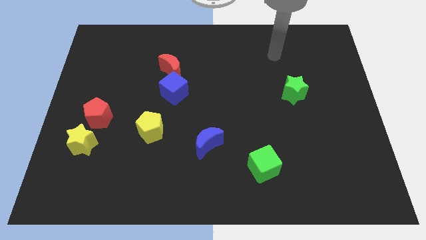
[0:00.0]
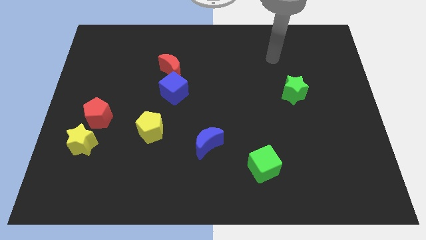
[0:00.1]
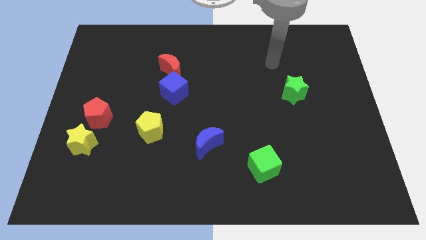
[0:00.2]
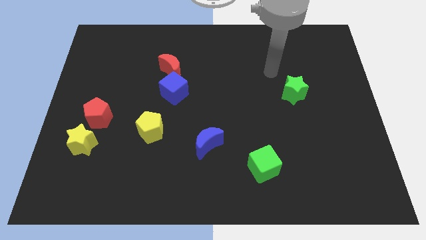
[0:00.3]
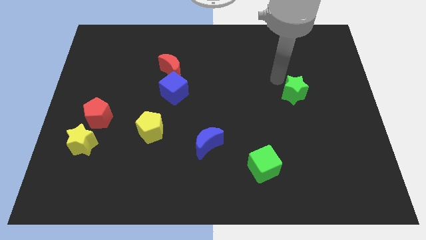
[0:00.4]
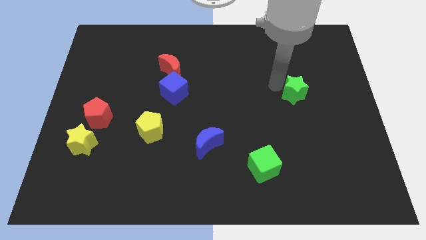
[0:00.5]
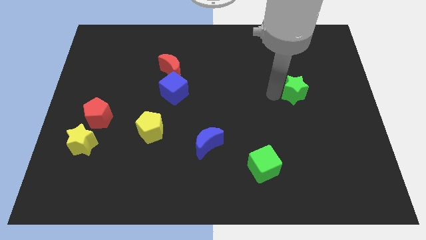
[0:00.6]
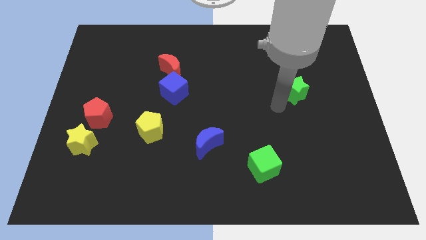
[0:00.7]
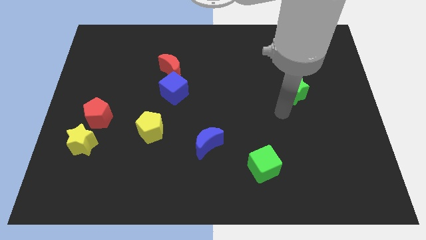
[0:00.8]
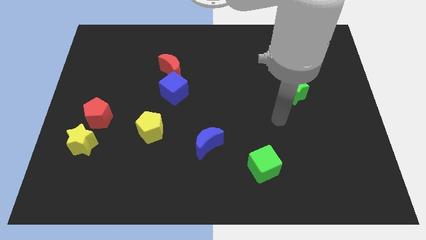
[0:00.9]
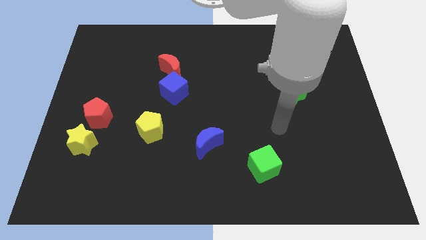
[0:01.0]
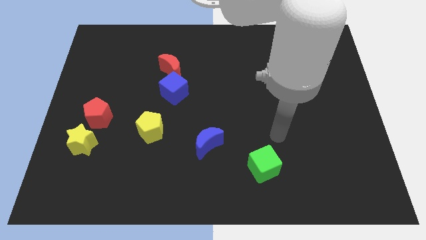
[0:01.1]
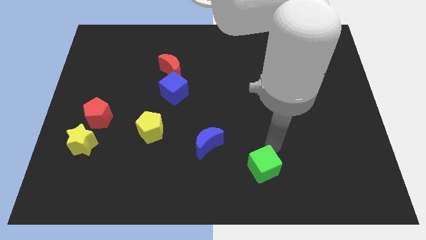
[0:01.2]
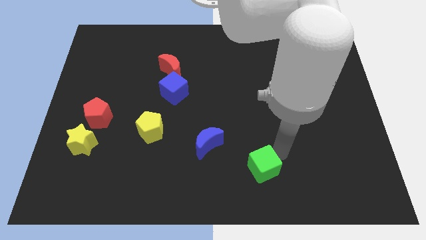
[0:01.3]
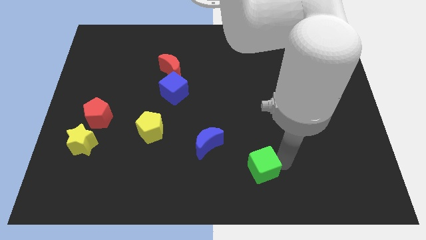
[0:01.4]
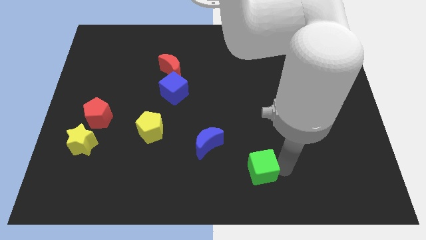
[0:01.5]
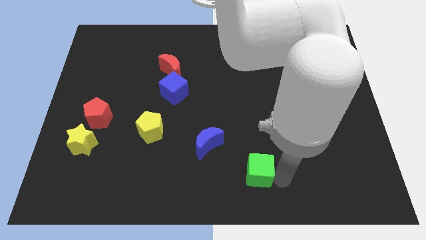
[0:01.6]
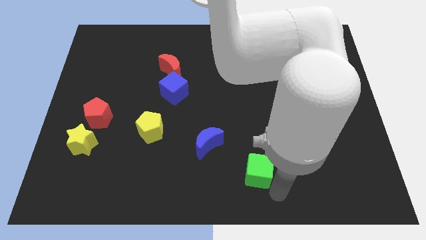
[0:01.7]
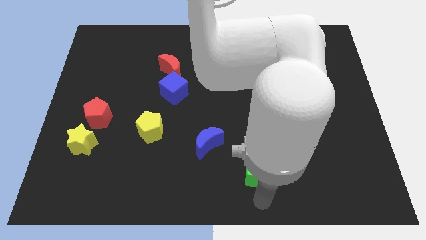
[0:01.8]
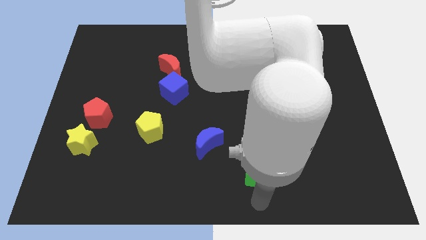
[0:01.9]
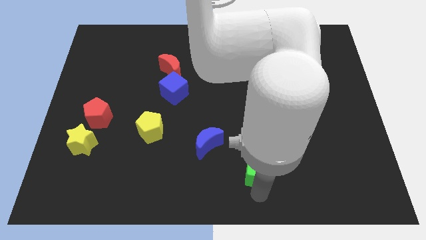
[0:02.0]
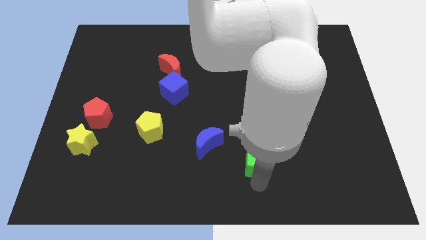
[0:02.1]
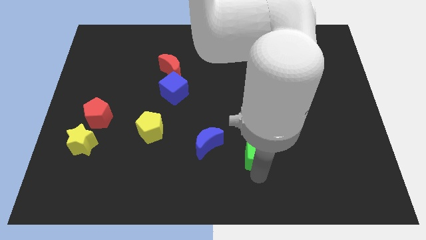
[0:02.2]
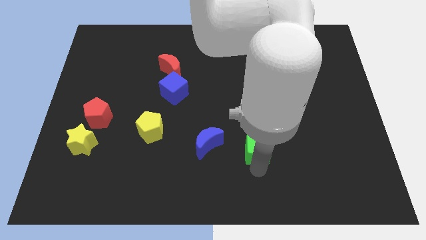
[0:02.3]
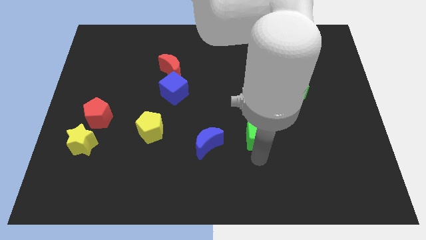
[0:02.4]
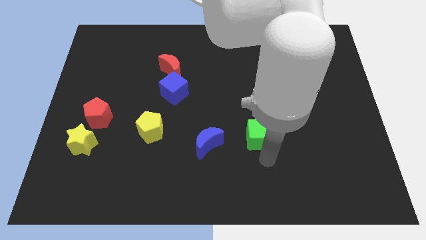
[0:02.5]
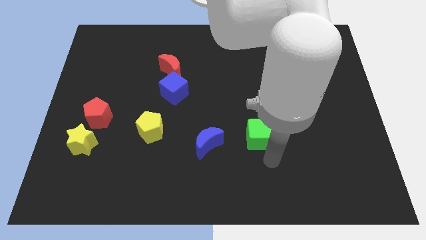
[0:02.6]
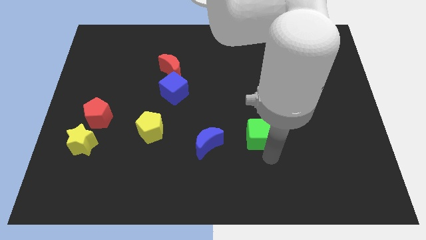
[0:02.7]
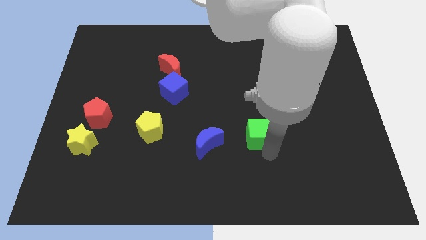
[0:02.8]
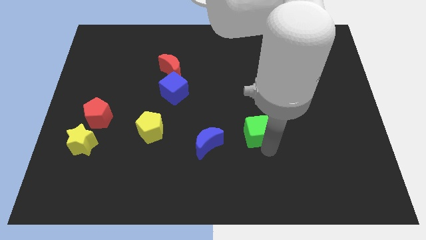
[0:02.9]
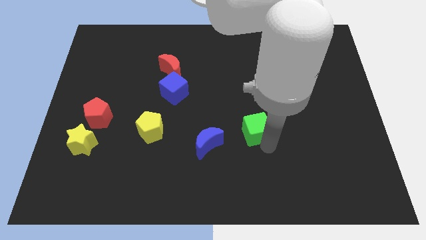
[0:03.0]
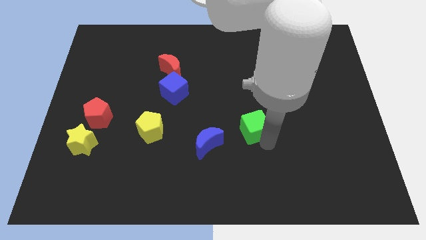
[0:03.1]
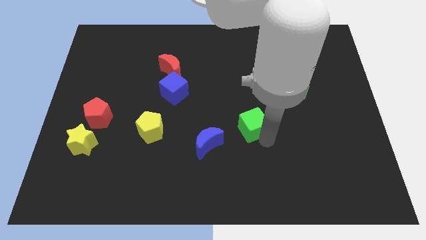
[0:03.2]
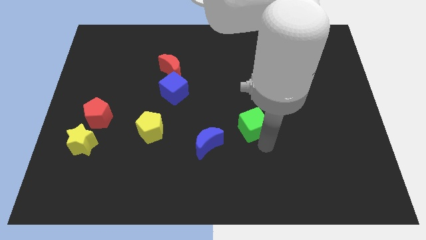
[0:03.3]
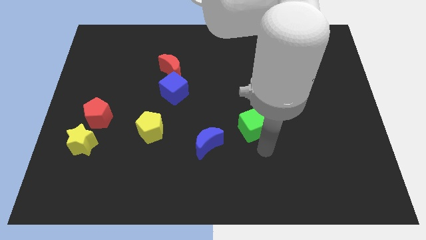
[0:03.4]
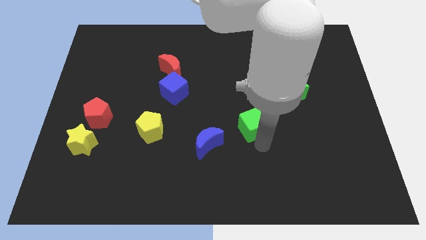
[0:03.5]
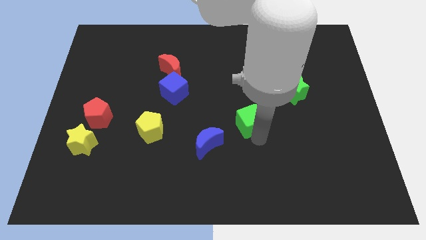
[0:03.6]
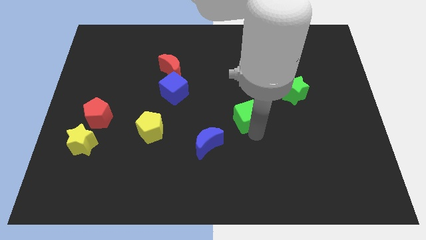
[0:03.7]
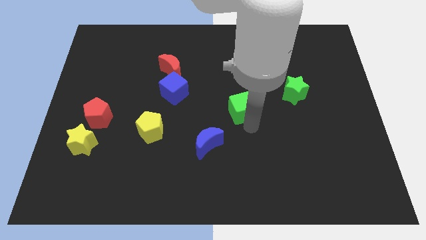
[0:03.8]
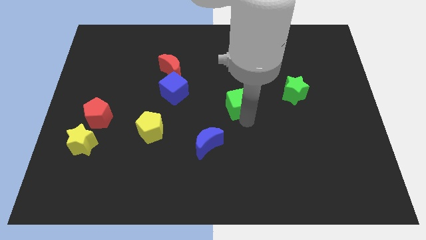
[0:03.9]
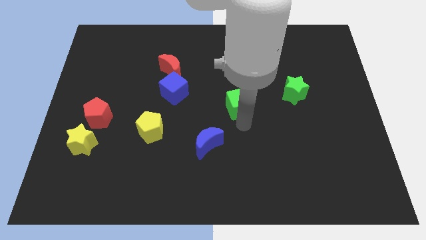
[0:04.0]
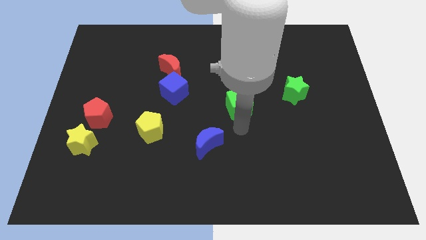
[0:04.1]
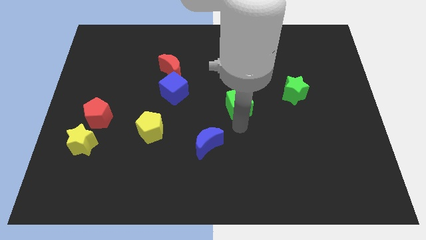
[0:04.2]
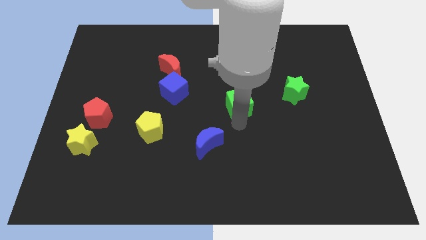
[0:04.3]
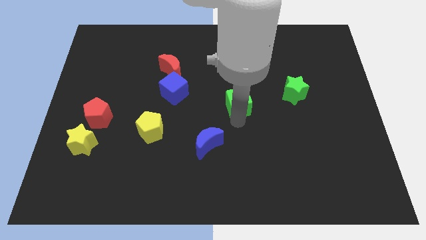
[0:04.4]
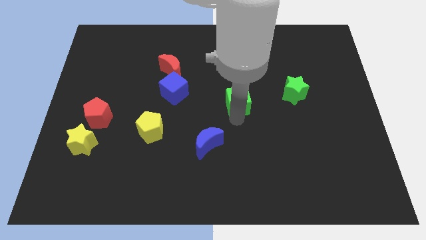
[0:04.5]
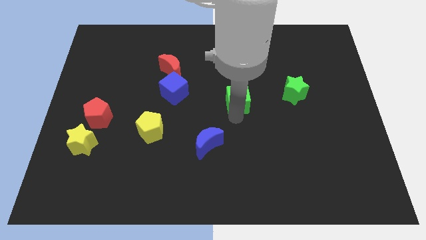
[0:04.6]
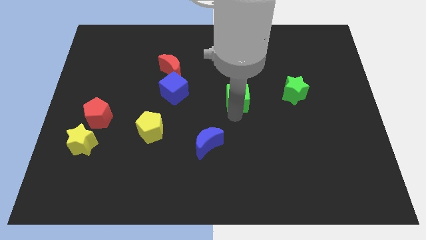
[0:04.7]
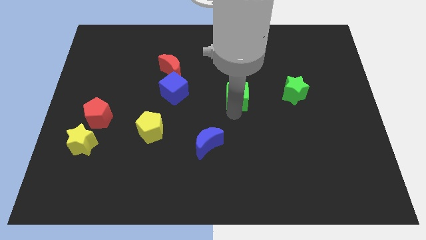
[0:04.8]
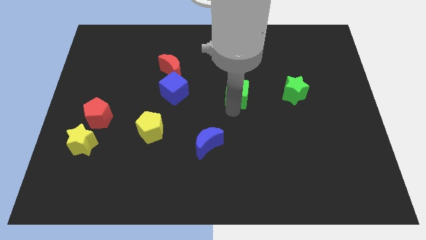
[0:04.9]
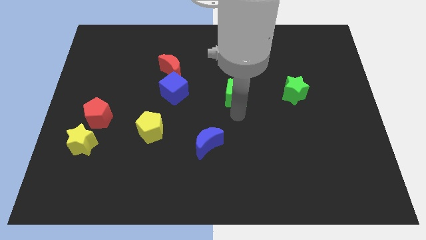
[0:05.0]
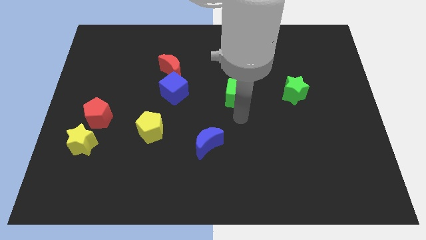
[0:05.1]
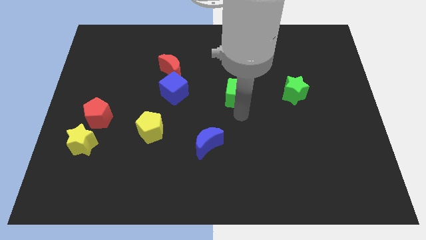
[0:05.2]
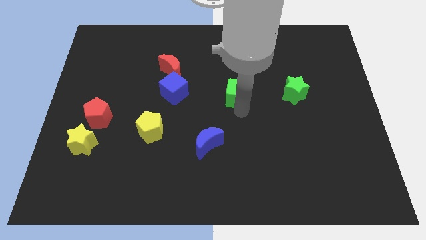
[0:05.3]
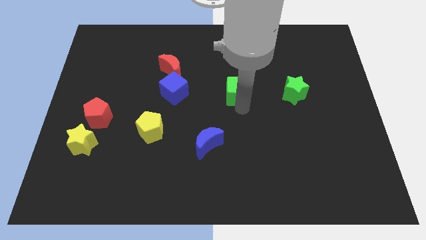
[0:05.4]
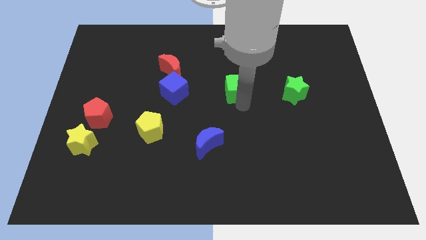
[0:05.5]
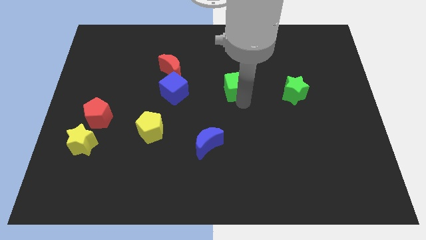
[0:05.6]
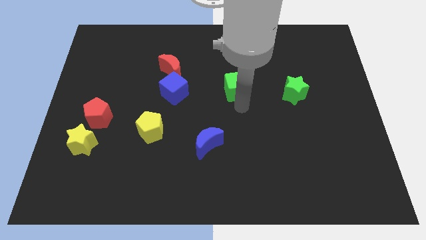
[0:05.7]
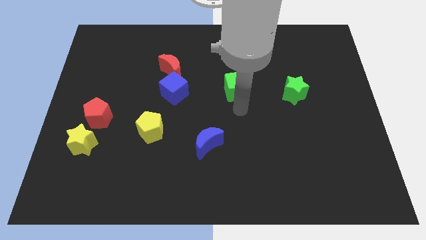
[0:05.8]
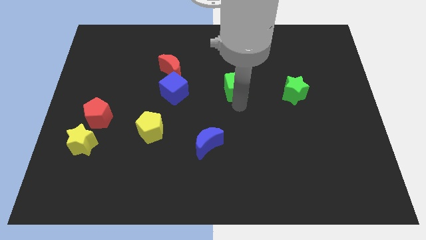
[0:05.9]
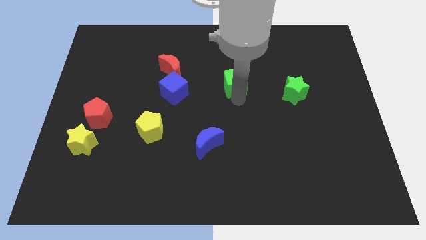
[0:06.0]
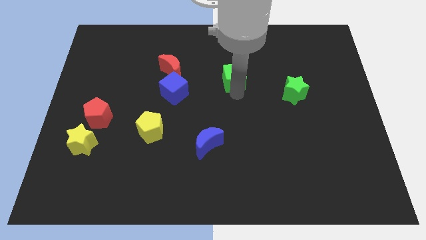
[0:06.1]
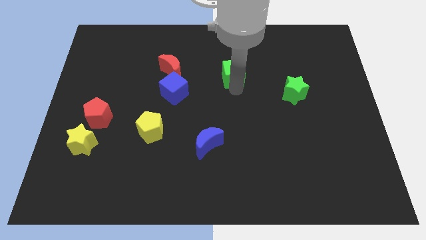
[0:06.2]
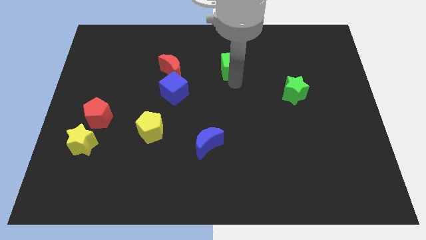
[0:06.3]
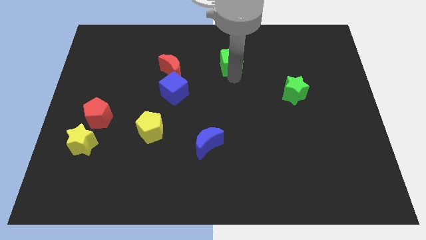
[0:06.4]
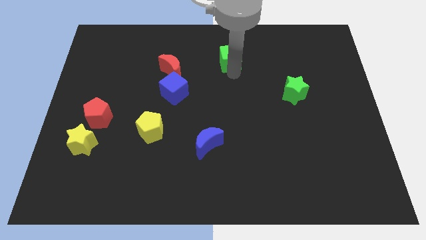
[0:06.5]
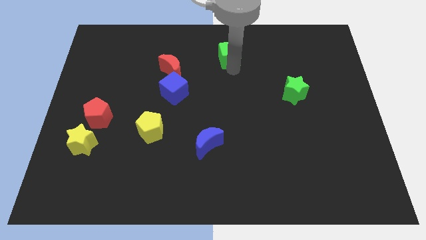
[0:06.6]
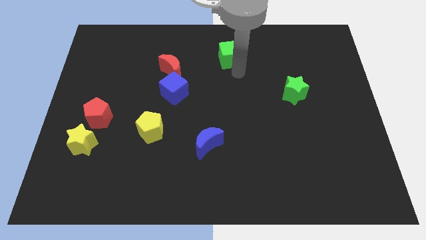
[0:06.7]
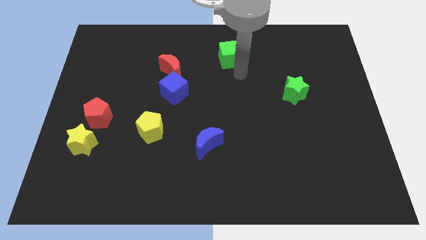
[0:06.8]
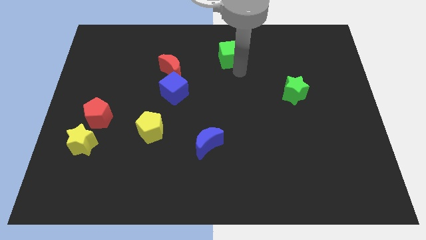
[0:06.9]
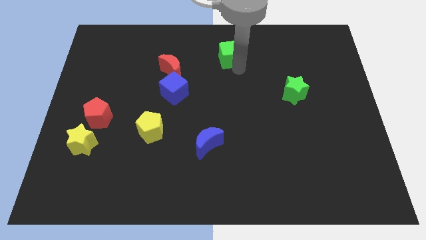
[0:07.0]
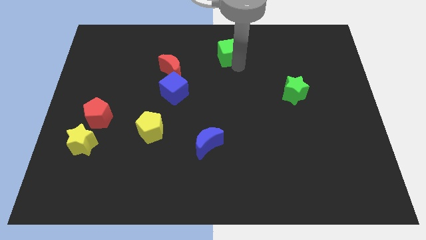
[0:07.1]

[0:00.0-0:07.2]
push the green cube to the towards your base
